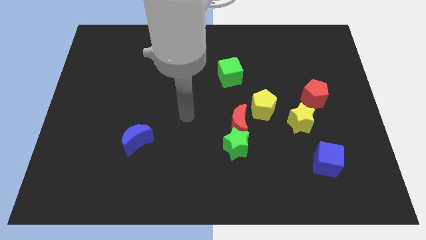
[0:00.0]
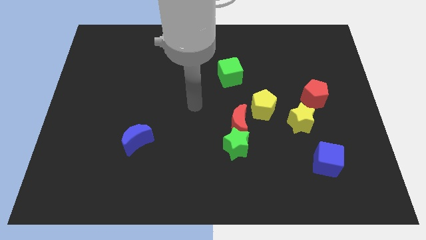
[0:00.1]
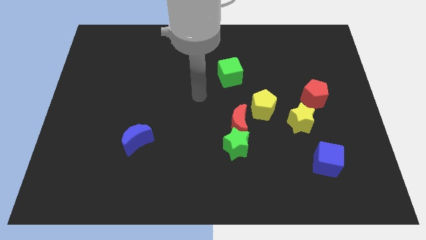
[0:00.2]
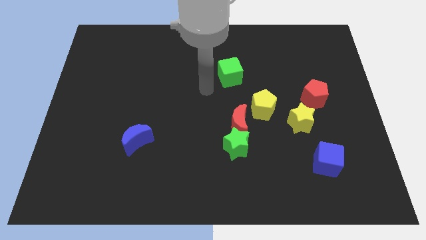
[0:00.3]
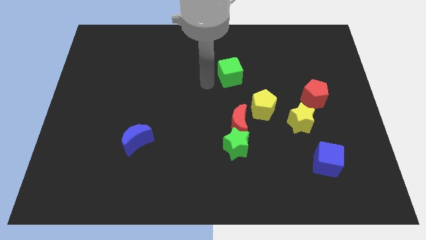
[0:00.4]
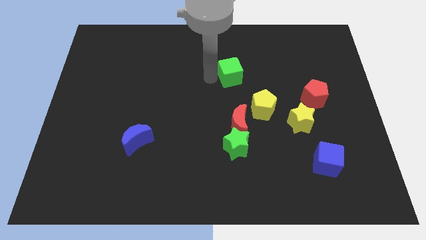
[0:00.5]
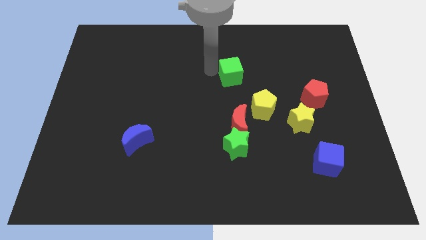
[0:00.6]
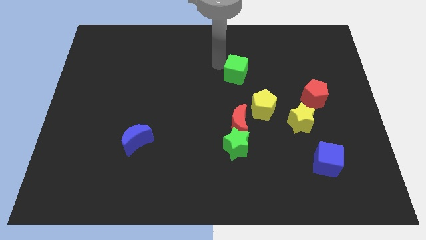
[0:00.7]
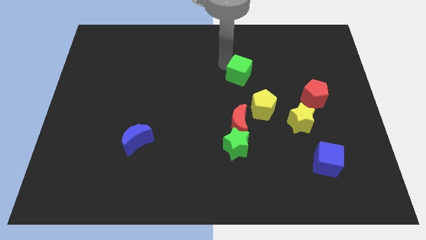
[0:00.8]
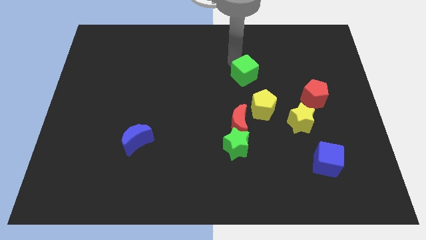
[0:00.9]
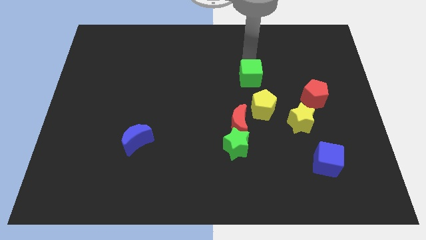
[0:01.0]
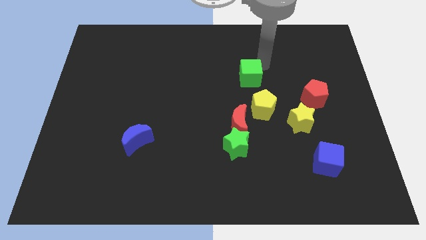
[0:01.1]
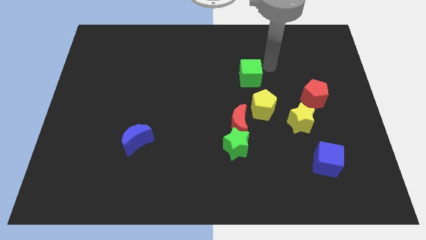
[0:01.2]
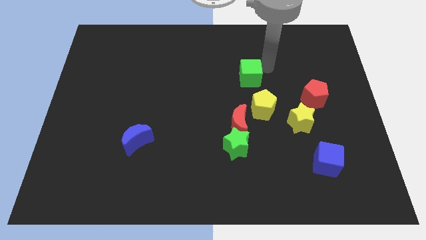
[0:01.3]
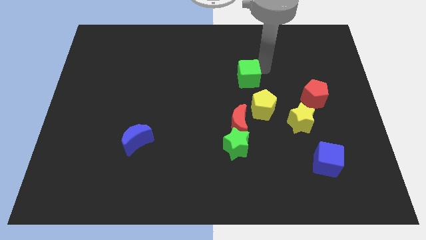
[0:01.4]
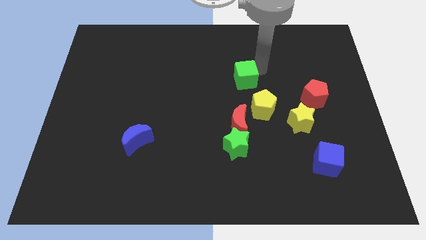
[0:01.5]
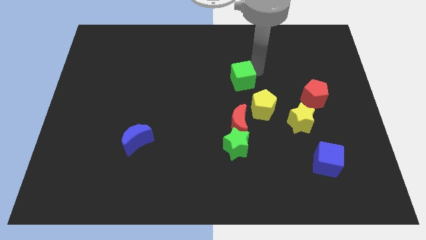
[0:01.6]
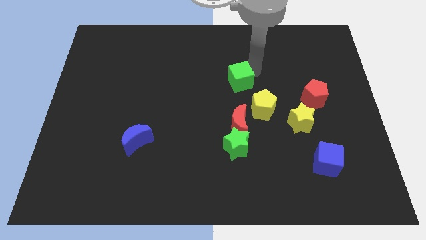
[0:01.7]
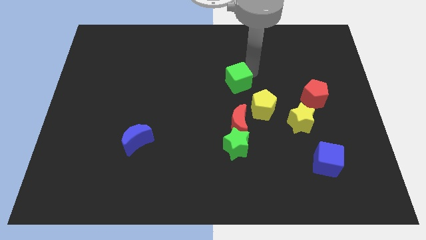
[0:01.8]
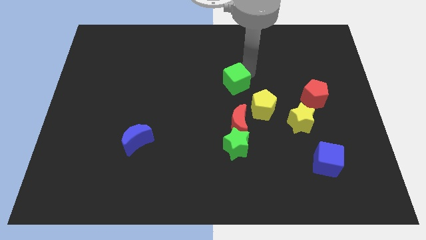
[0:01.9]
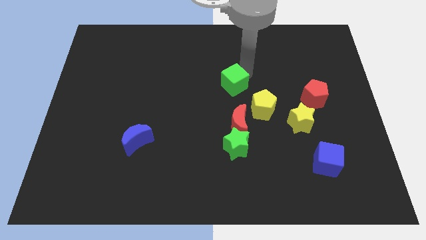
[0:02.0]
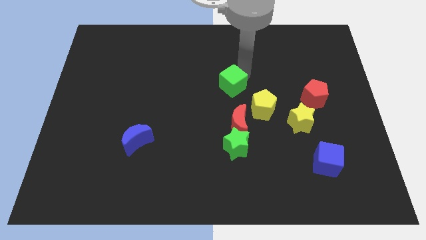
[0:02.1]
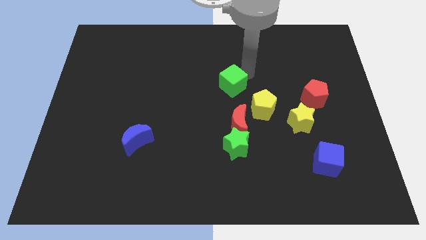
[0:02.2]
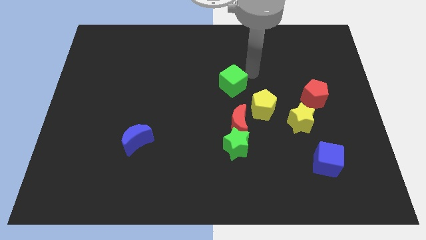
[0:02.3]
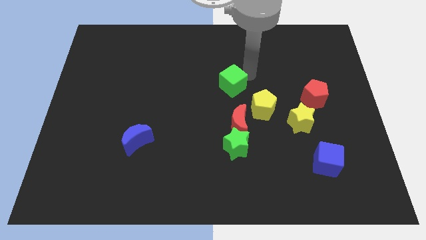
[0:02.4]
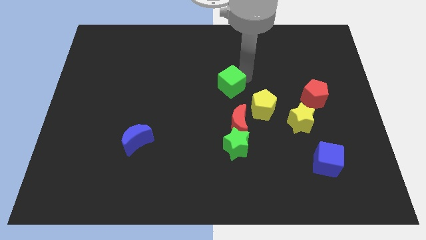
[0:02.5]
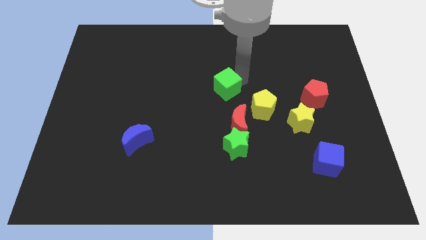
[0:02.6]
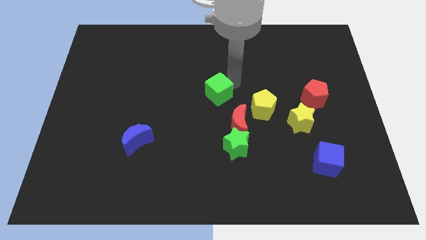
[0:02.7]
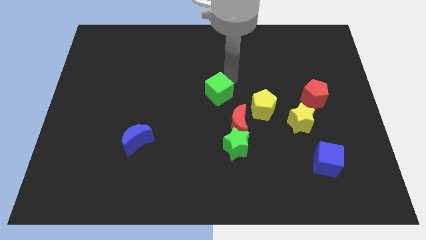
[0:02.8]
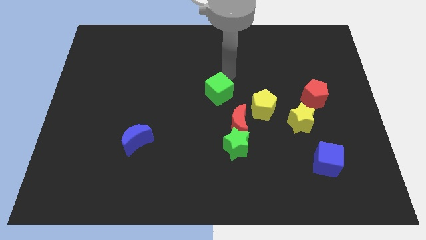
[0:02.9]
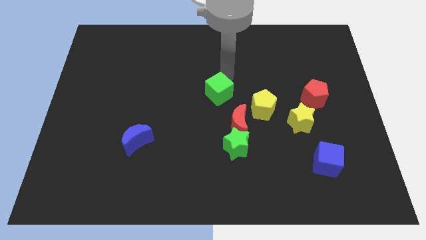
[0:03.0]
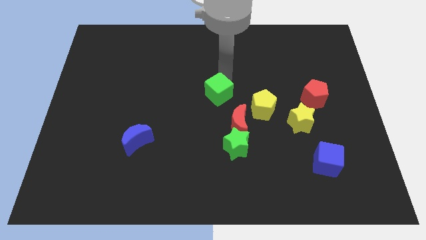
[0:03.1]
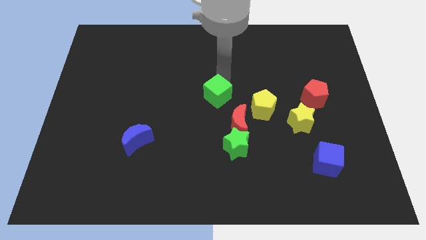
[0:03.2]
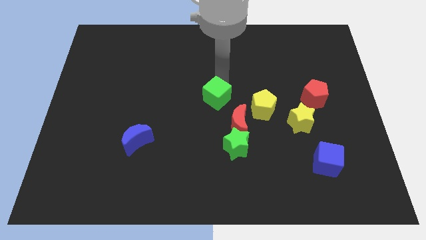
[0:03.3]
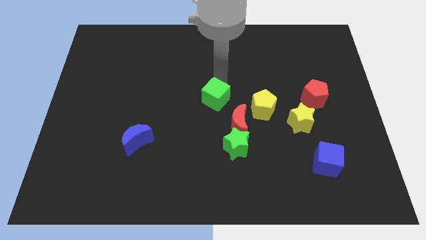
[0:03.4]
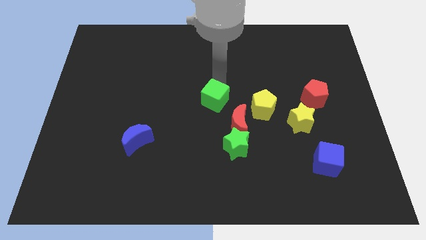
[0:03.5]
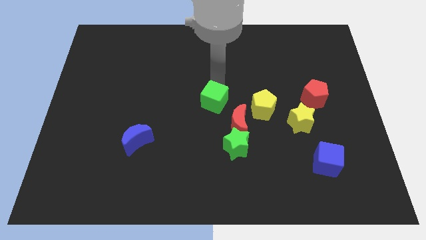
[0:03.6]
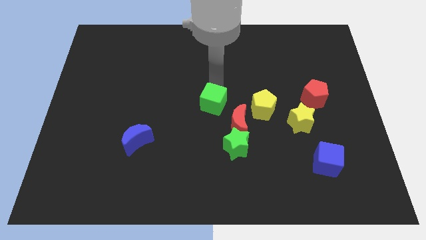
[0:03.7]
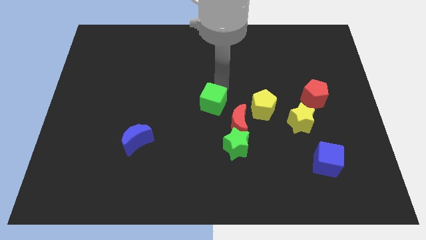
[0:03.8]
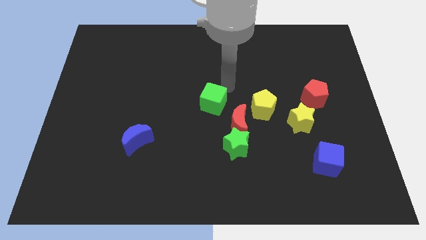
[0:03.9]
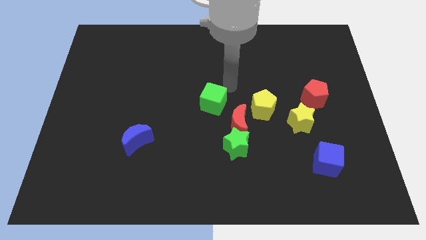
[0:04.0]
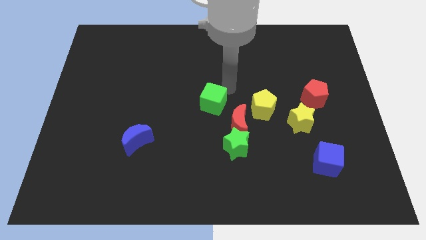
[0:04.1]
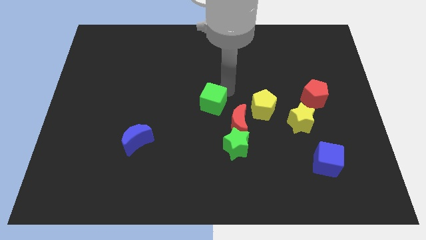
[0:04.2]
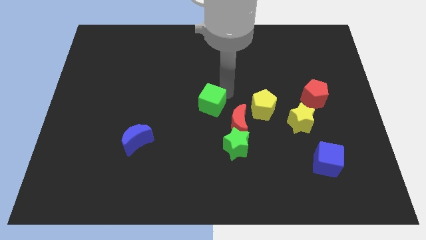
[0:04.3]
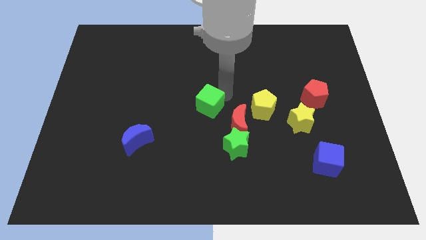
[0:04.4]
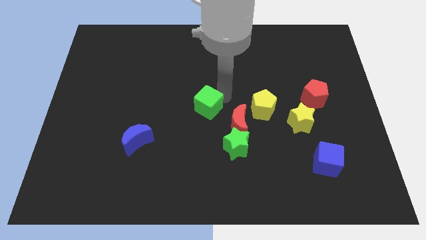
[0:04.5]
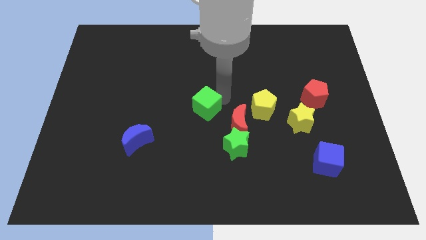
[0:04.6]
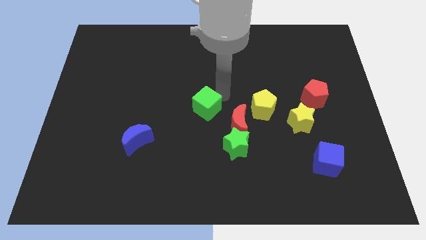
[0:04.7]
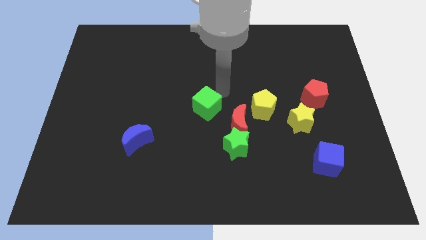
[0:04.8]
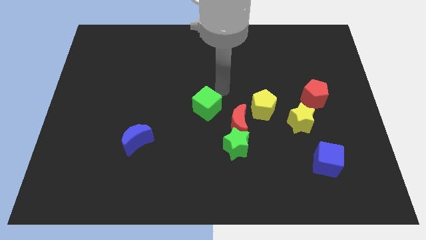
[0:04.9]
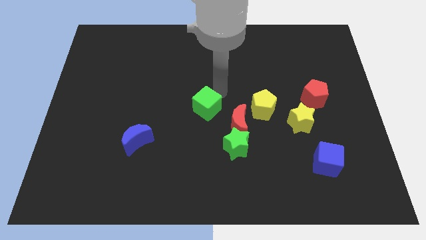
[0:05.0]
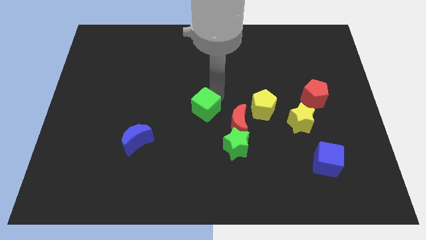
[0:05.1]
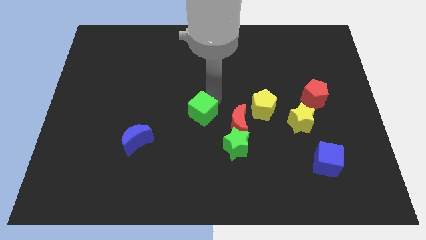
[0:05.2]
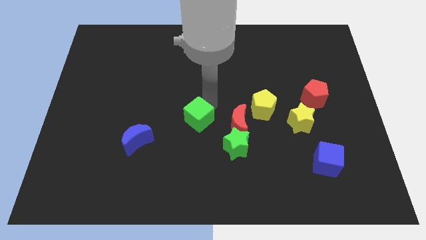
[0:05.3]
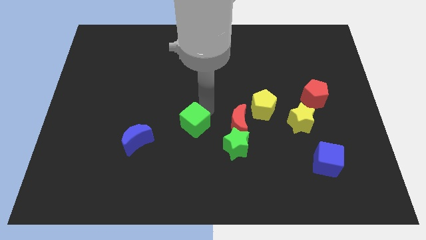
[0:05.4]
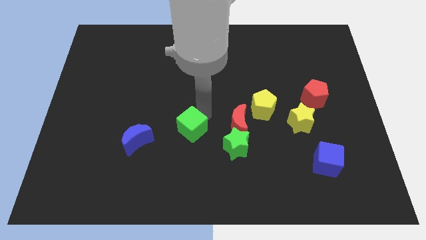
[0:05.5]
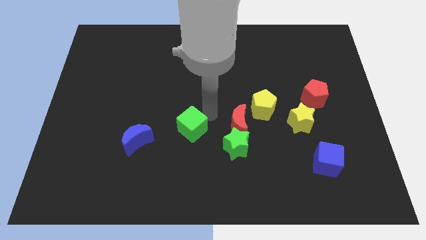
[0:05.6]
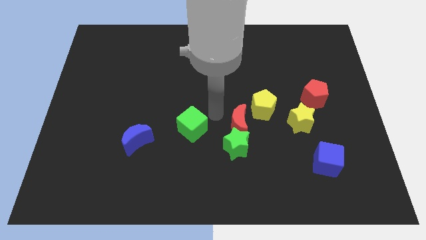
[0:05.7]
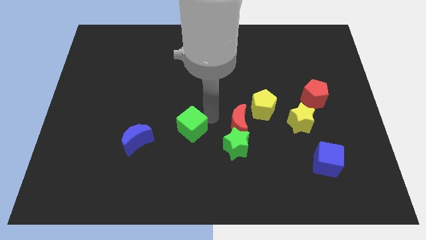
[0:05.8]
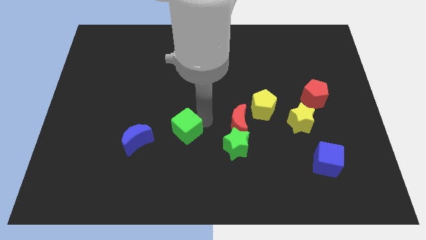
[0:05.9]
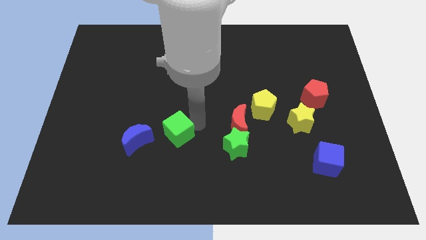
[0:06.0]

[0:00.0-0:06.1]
push the green cube down and to the left

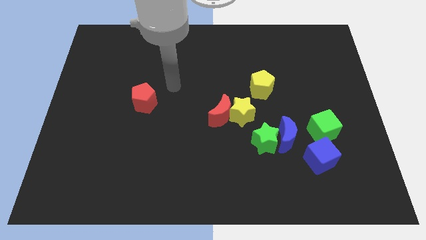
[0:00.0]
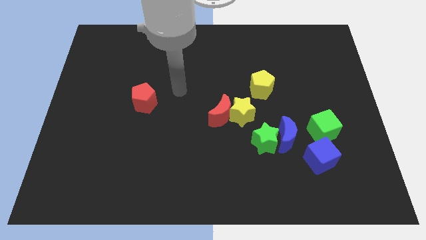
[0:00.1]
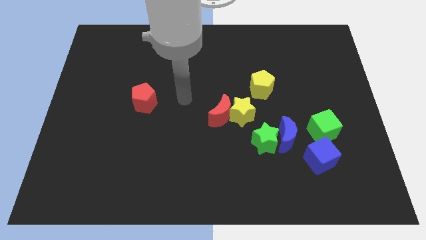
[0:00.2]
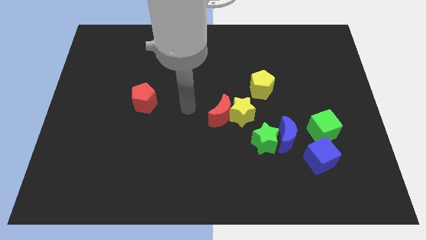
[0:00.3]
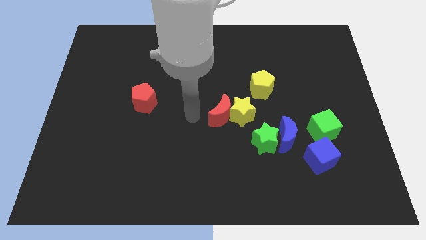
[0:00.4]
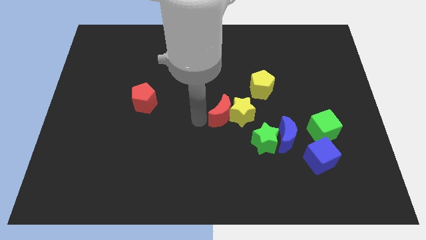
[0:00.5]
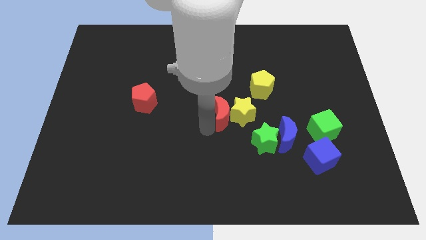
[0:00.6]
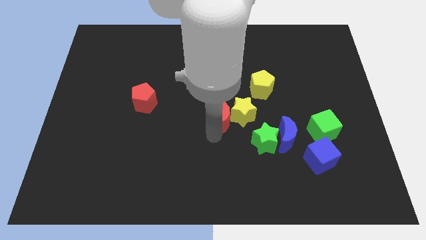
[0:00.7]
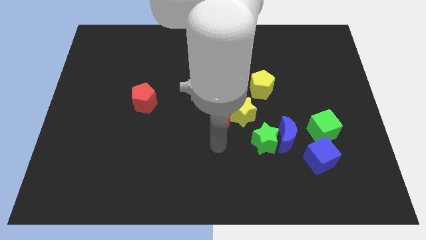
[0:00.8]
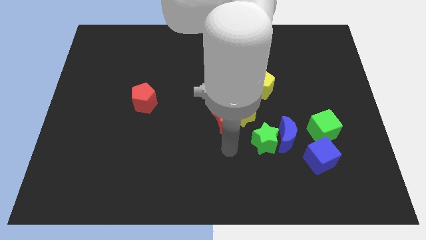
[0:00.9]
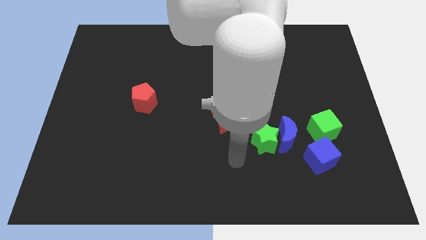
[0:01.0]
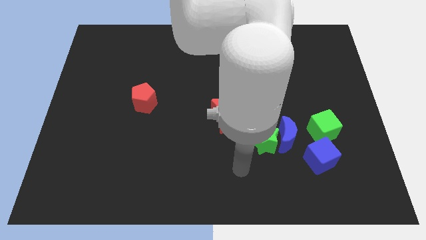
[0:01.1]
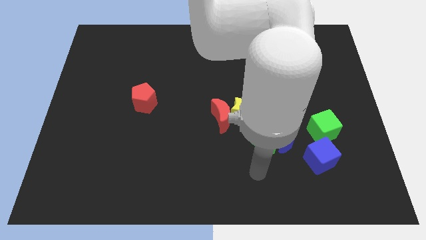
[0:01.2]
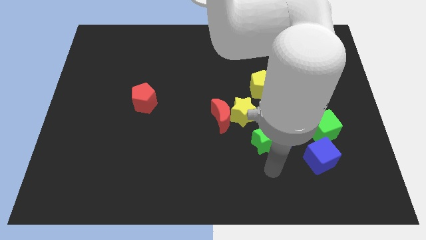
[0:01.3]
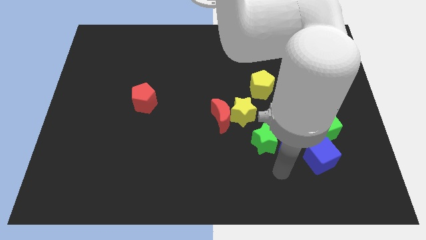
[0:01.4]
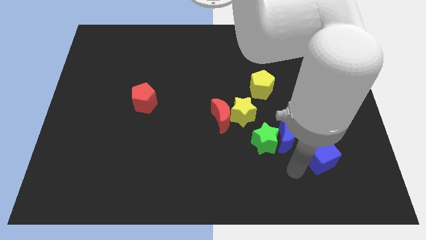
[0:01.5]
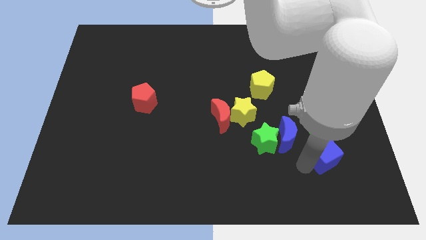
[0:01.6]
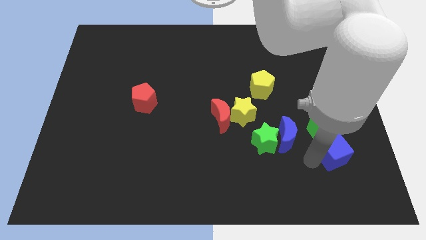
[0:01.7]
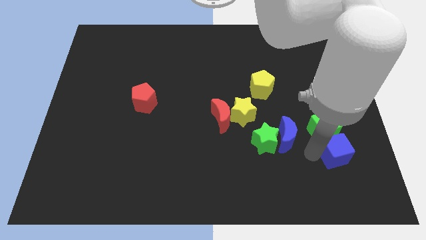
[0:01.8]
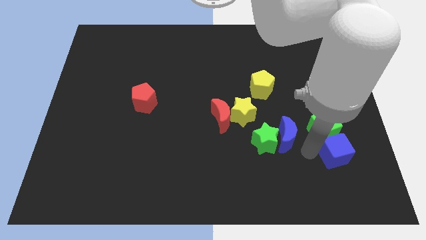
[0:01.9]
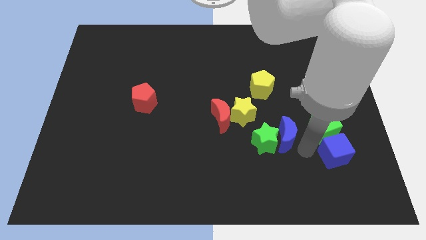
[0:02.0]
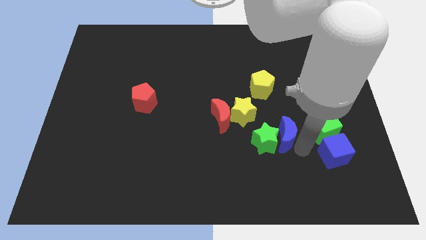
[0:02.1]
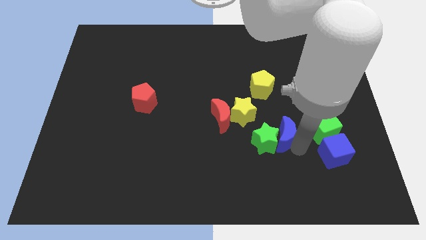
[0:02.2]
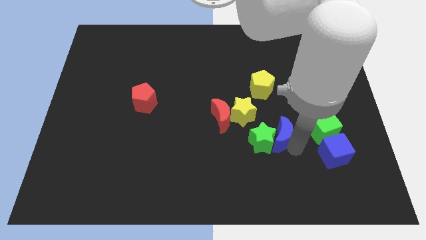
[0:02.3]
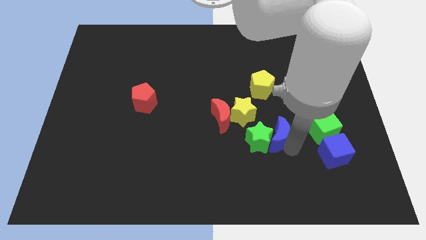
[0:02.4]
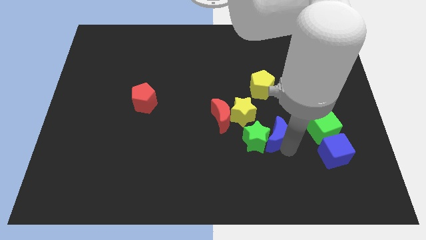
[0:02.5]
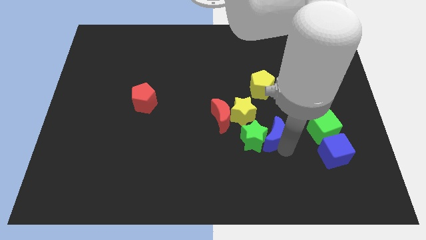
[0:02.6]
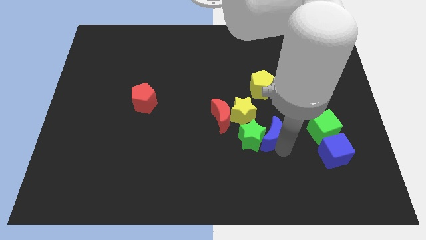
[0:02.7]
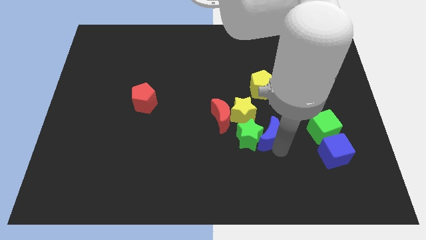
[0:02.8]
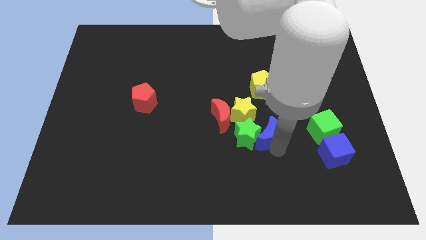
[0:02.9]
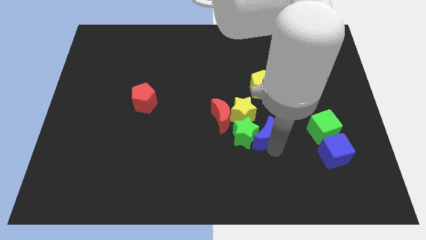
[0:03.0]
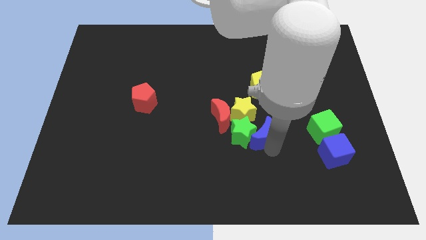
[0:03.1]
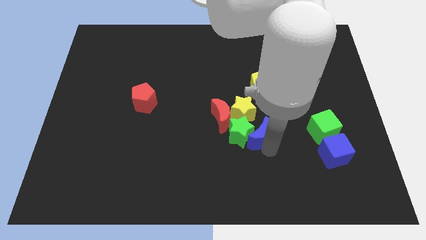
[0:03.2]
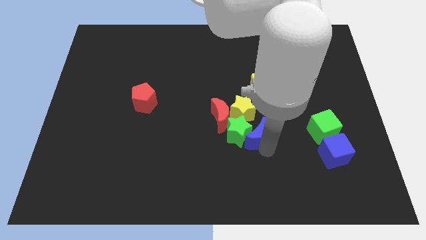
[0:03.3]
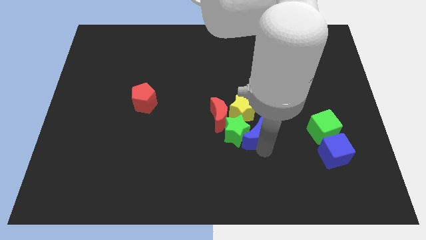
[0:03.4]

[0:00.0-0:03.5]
move the blue moon to the left a little
